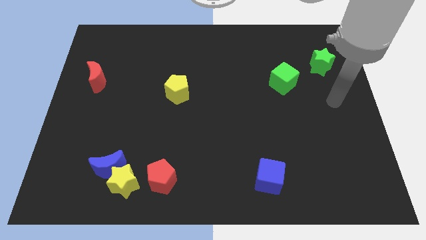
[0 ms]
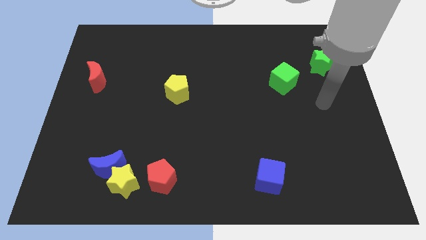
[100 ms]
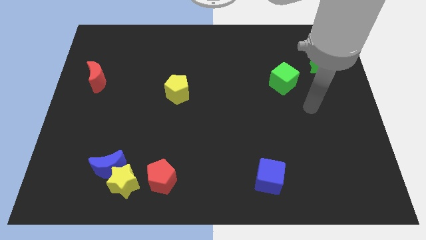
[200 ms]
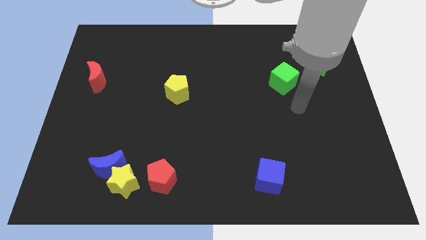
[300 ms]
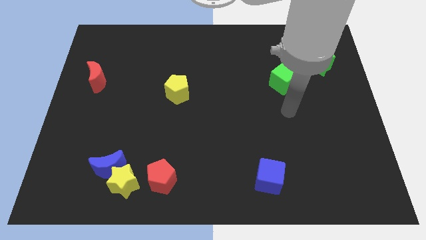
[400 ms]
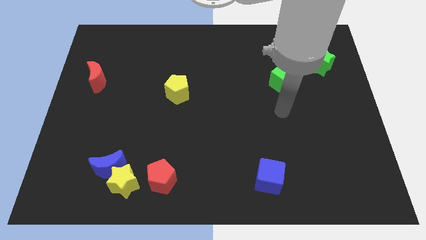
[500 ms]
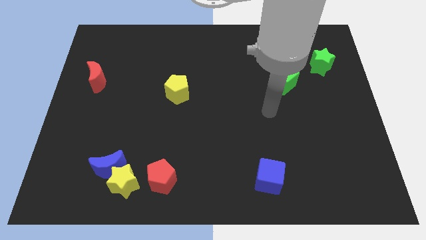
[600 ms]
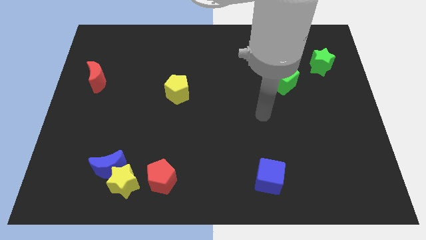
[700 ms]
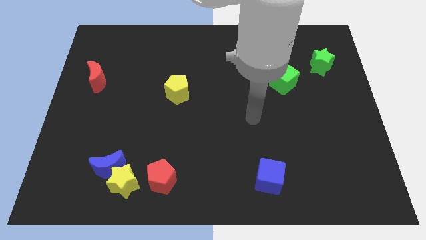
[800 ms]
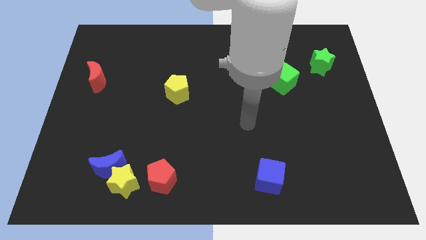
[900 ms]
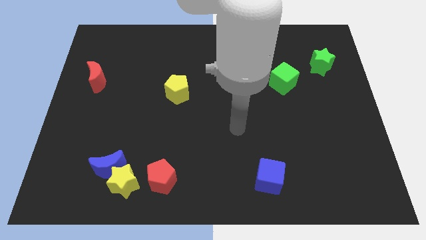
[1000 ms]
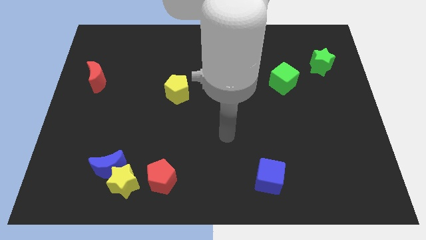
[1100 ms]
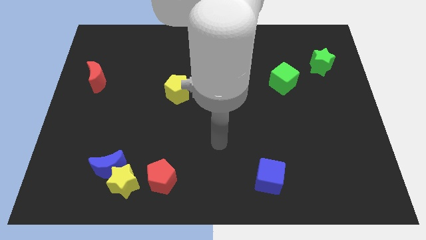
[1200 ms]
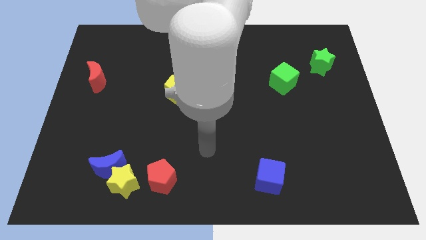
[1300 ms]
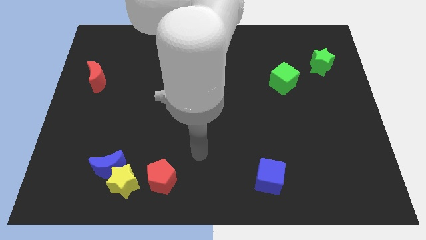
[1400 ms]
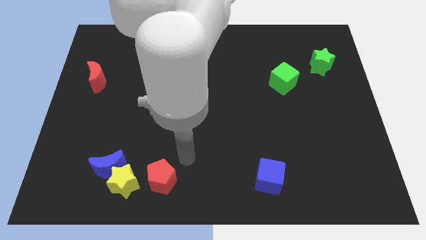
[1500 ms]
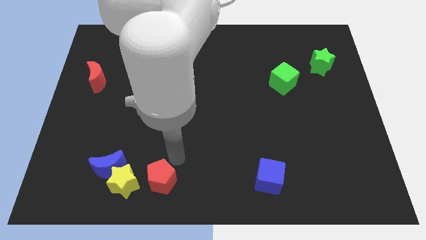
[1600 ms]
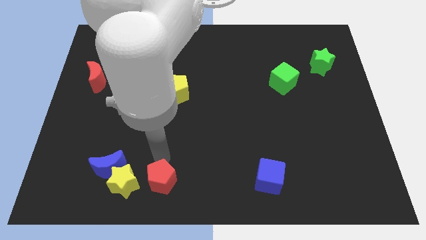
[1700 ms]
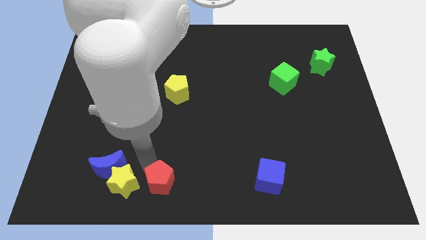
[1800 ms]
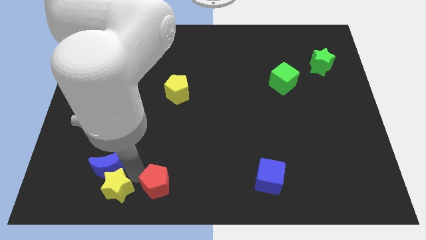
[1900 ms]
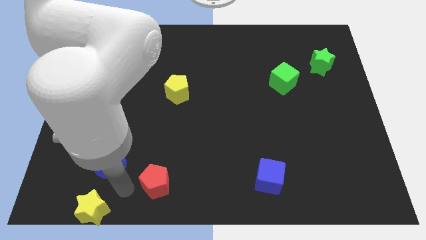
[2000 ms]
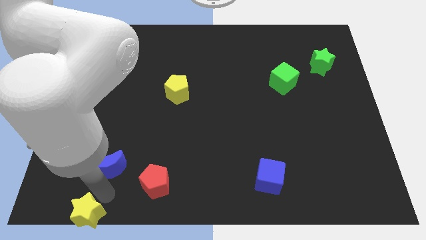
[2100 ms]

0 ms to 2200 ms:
move the blue moon away from the yellow star

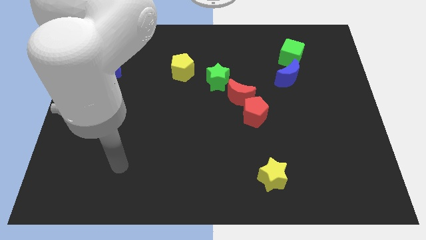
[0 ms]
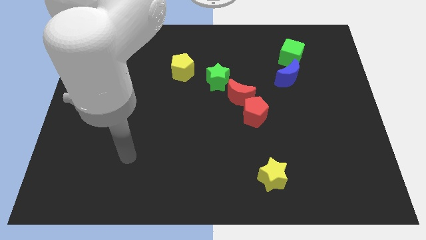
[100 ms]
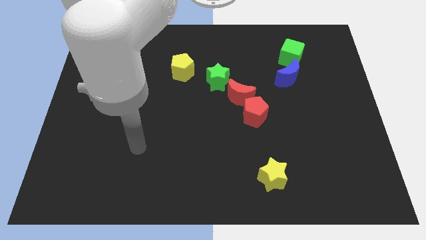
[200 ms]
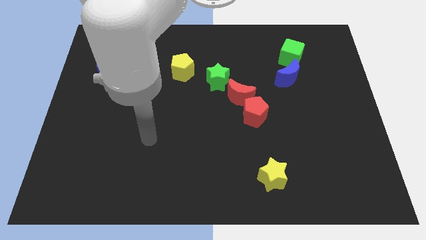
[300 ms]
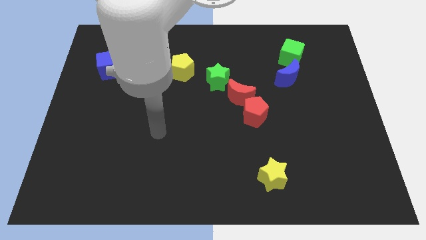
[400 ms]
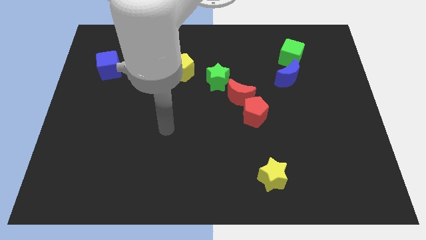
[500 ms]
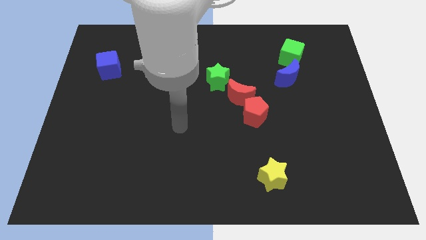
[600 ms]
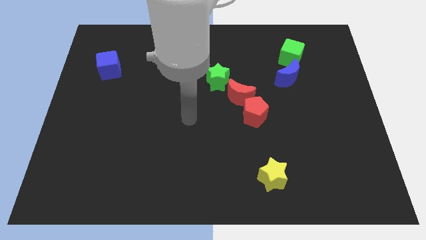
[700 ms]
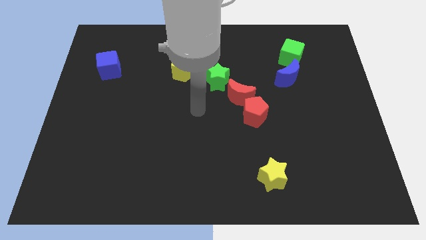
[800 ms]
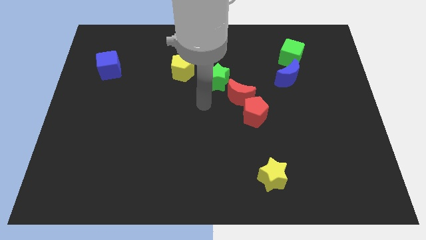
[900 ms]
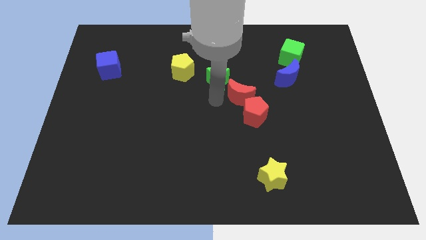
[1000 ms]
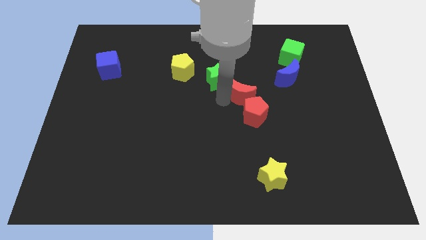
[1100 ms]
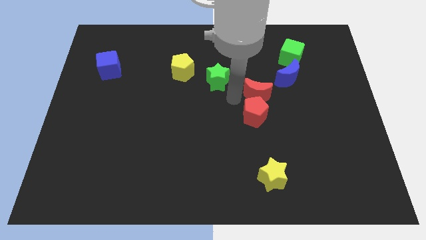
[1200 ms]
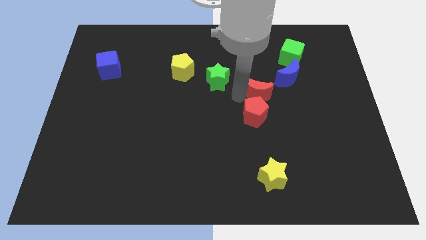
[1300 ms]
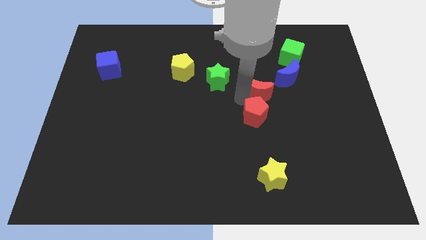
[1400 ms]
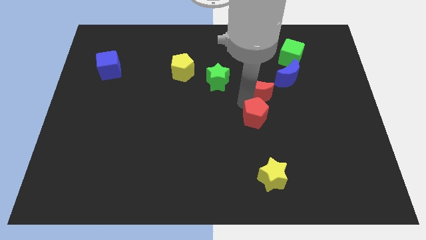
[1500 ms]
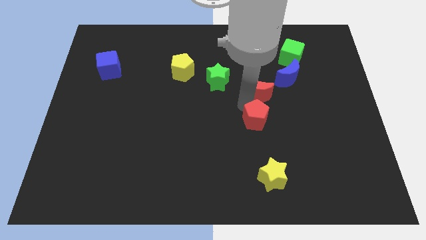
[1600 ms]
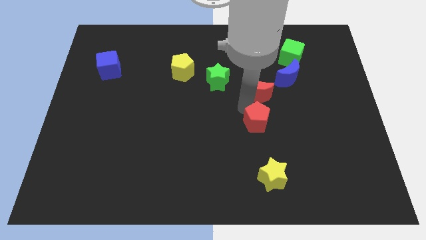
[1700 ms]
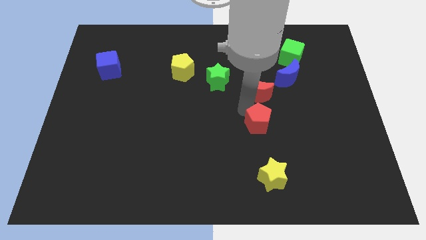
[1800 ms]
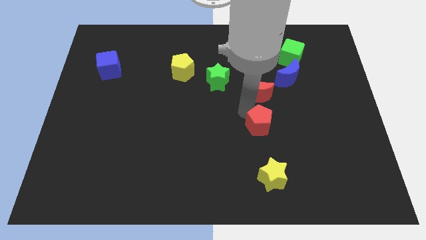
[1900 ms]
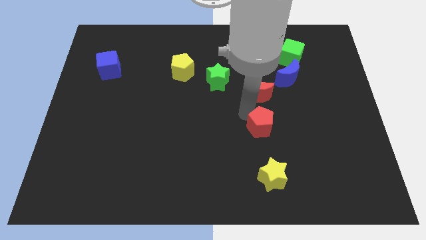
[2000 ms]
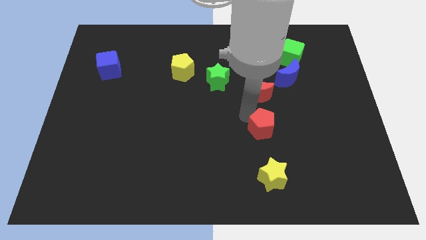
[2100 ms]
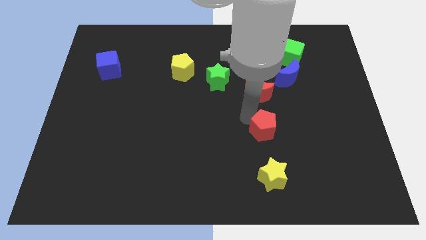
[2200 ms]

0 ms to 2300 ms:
pull the red pentagon apart from the red moon

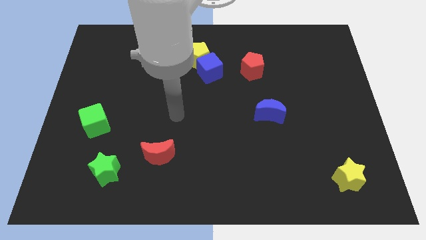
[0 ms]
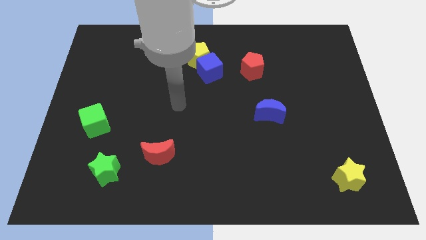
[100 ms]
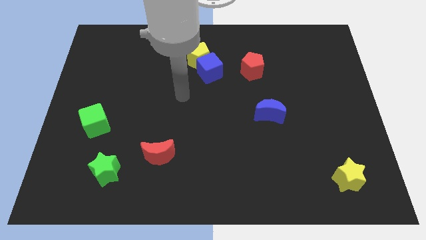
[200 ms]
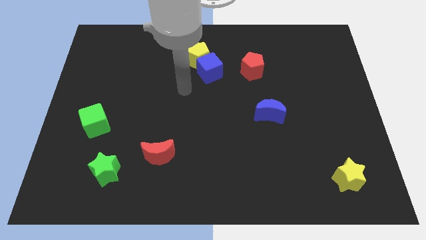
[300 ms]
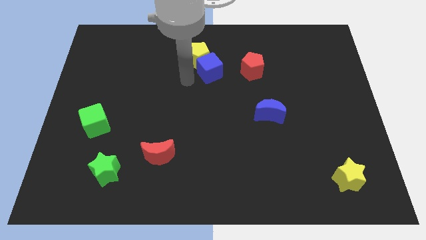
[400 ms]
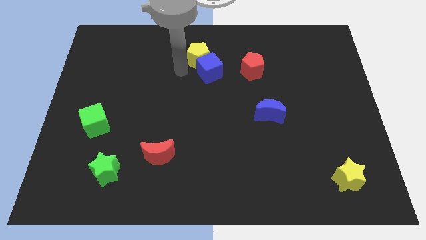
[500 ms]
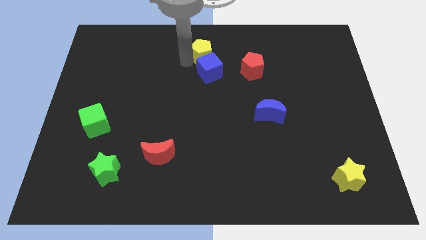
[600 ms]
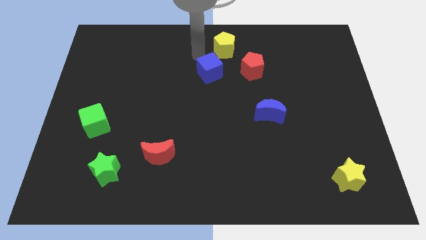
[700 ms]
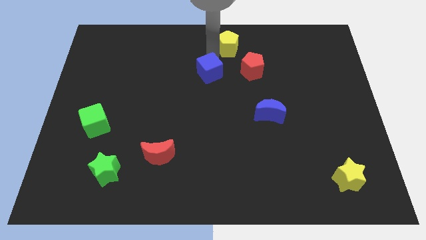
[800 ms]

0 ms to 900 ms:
move the blue cube away from the yellow pentagon

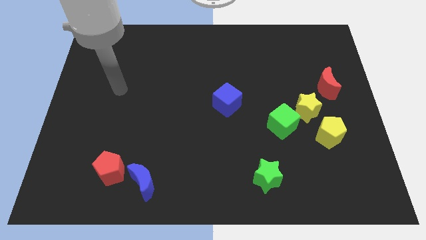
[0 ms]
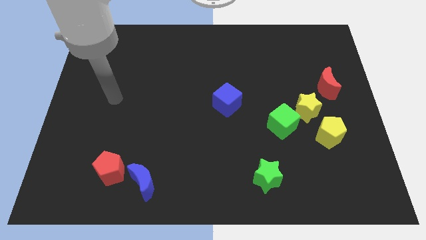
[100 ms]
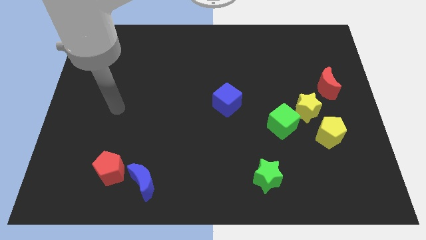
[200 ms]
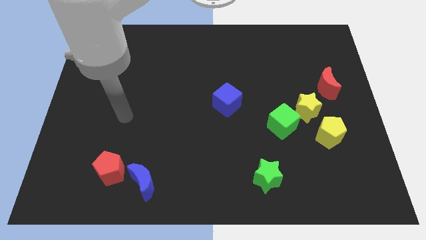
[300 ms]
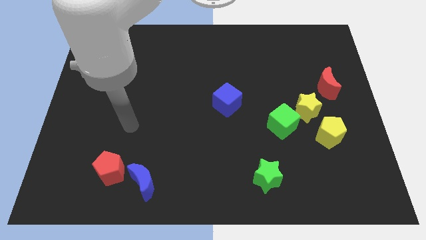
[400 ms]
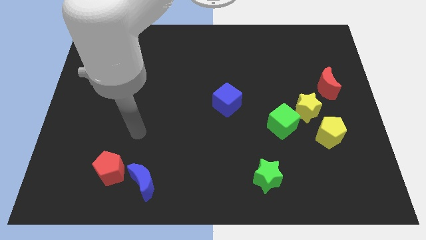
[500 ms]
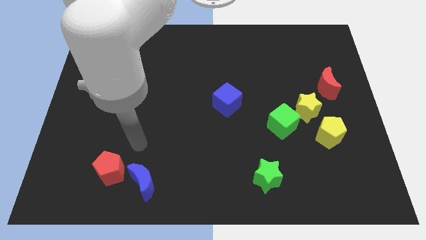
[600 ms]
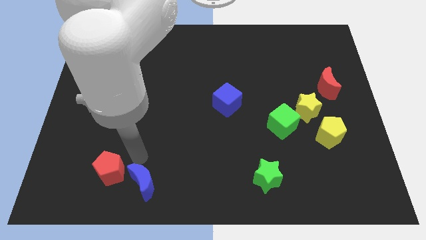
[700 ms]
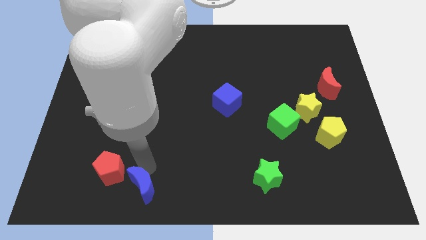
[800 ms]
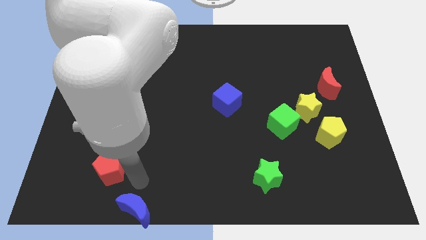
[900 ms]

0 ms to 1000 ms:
move the red pentagon away from the blue moon

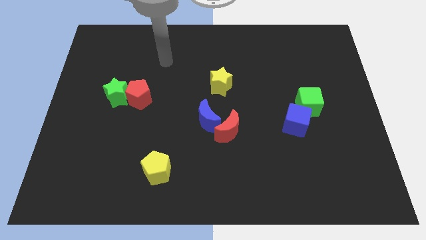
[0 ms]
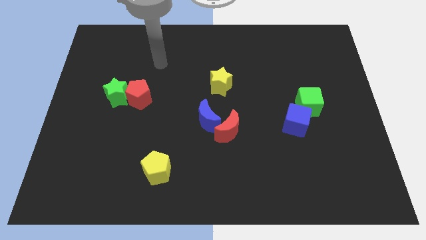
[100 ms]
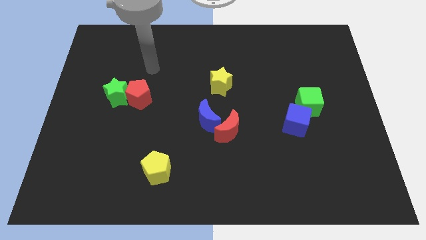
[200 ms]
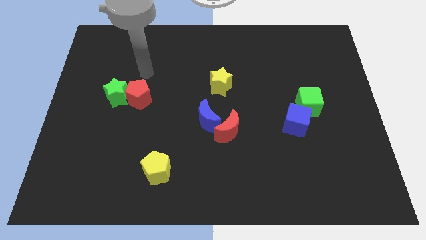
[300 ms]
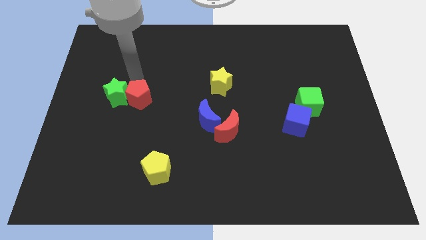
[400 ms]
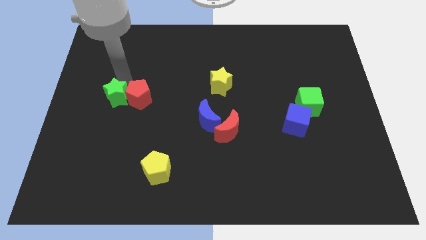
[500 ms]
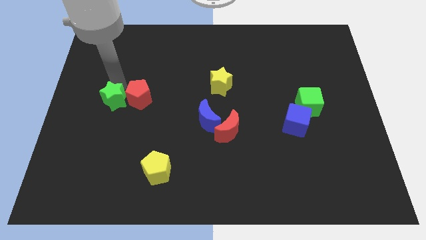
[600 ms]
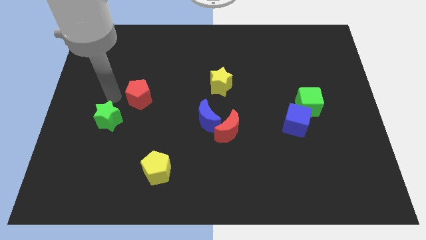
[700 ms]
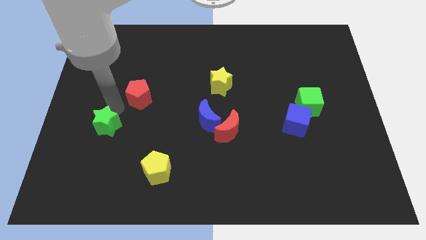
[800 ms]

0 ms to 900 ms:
move the red pentagon away from the green star

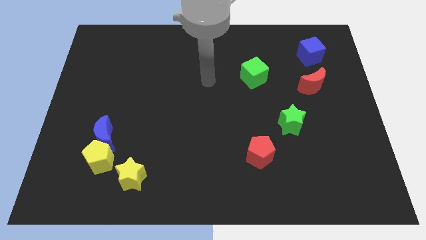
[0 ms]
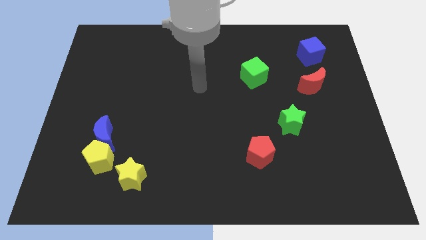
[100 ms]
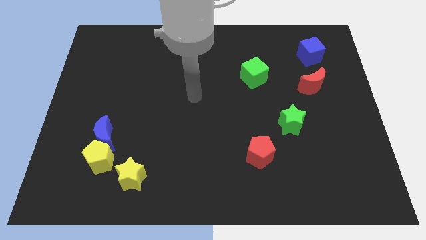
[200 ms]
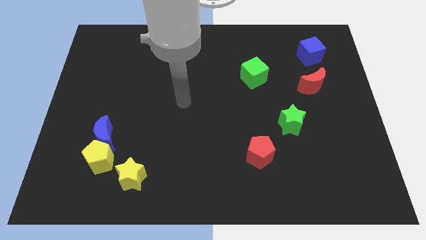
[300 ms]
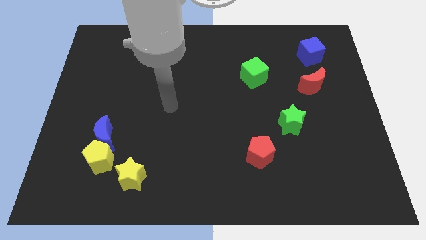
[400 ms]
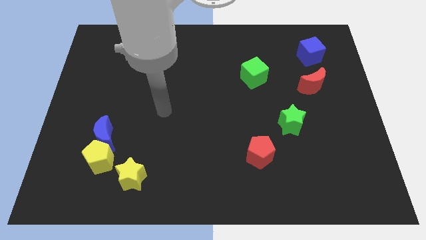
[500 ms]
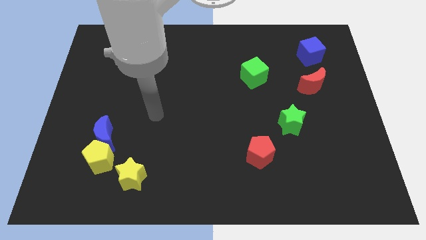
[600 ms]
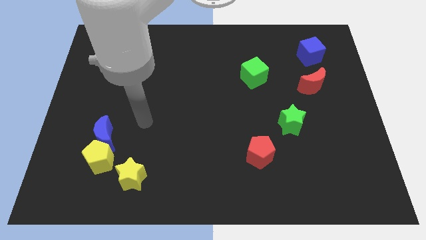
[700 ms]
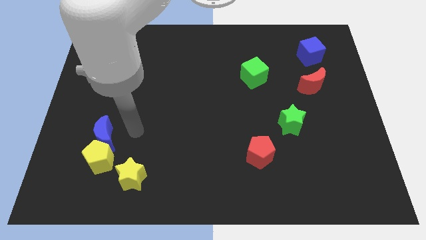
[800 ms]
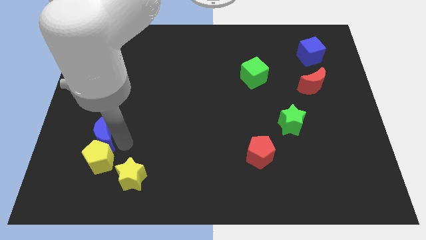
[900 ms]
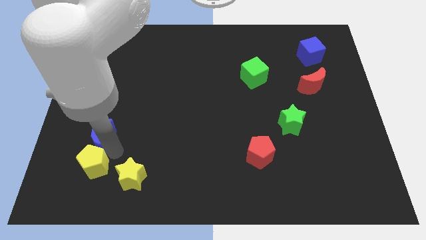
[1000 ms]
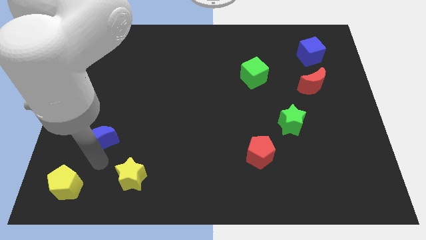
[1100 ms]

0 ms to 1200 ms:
pull the blue moon apart from the yellow pentagon

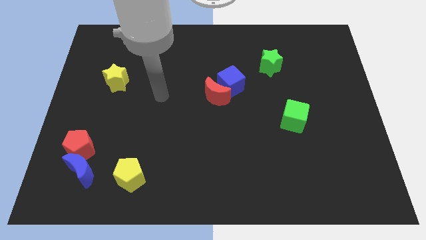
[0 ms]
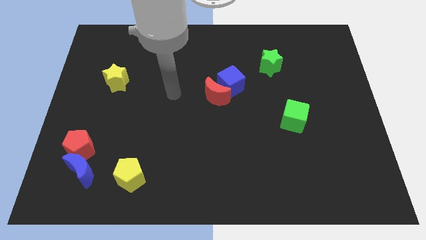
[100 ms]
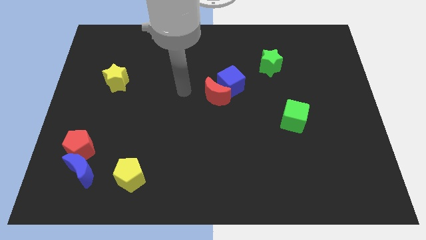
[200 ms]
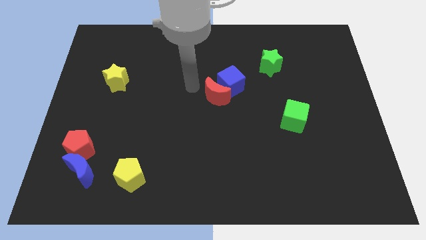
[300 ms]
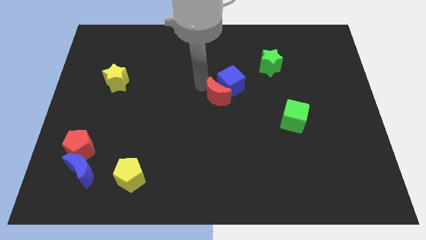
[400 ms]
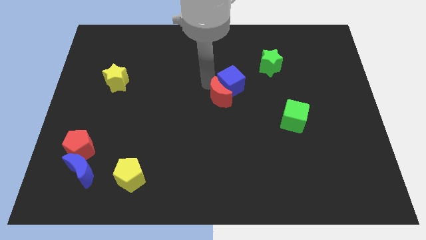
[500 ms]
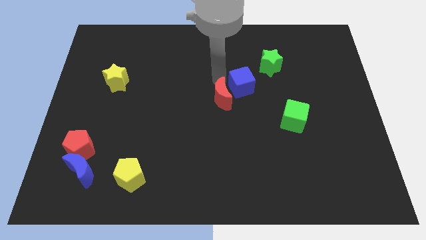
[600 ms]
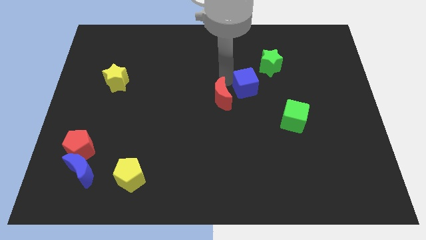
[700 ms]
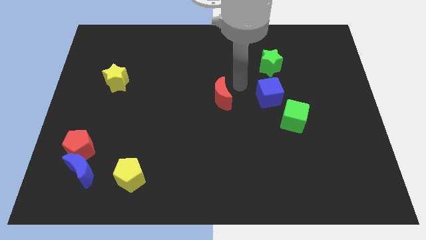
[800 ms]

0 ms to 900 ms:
move the red moon away from the blue cube
